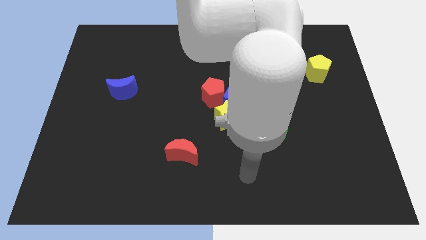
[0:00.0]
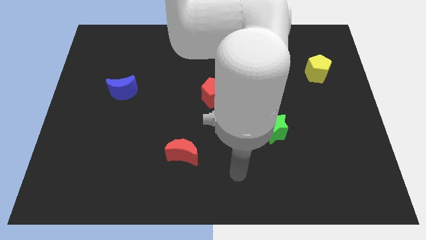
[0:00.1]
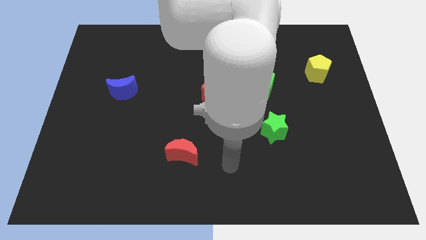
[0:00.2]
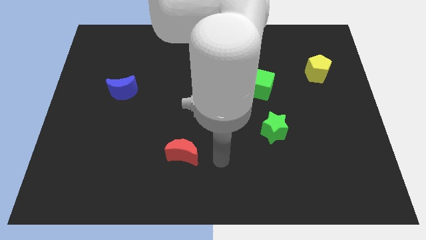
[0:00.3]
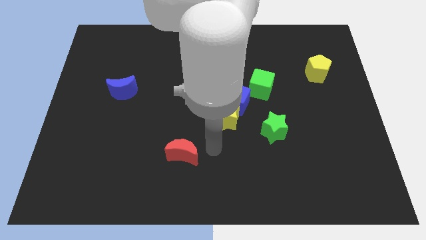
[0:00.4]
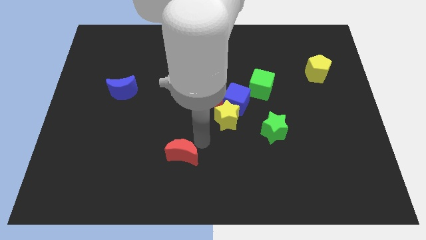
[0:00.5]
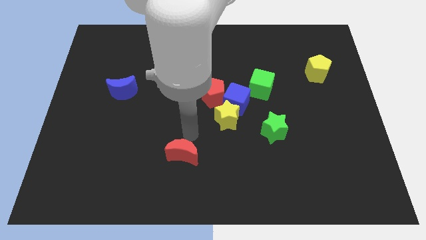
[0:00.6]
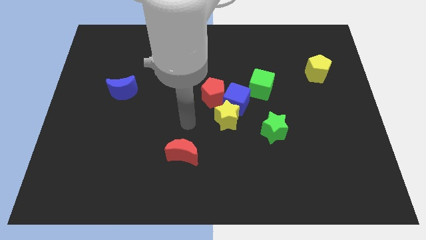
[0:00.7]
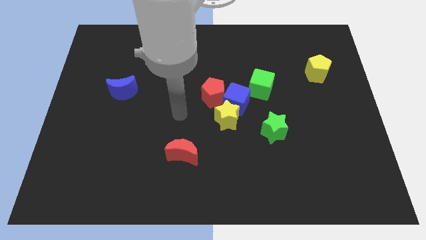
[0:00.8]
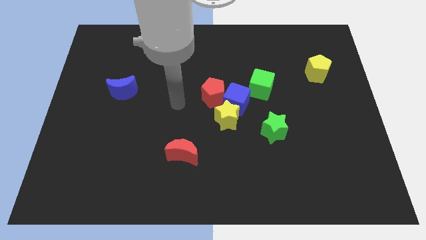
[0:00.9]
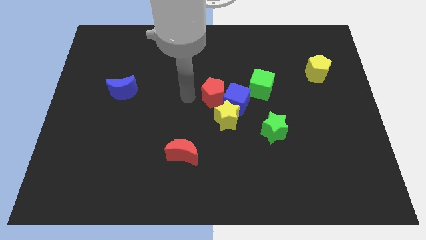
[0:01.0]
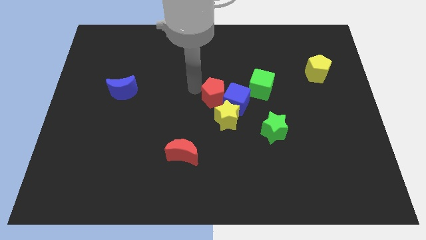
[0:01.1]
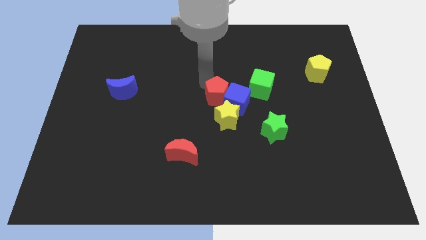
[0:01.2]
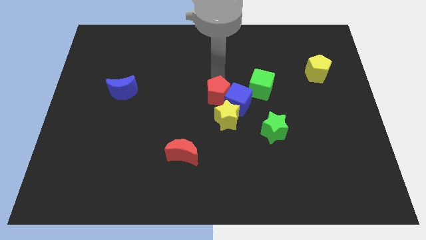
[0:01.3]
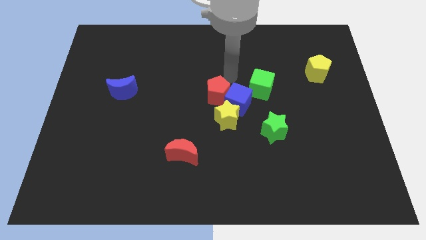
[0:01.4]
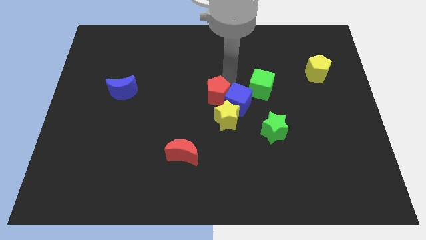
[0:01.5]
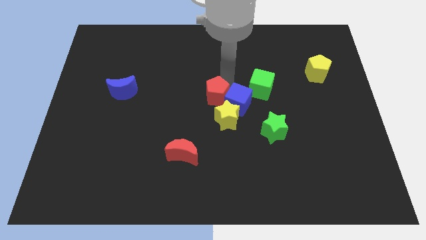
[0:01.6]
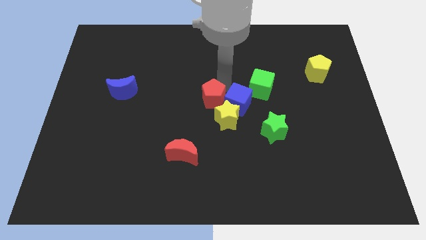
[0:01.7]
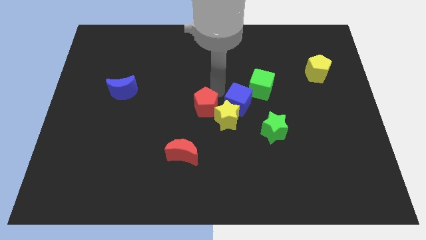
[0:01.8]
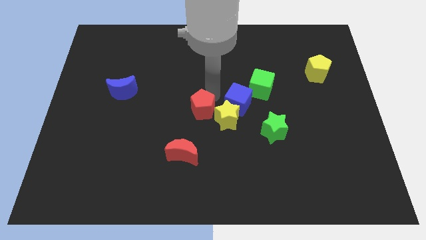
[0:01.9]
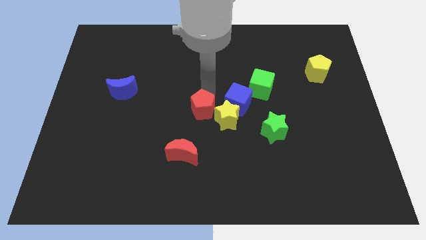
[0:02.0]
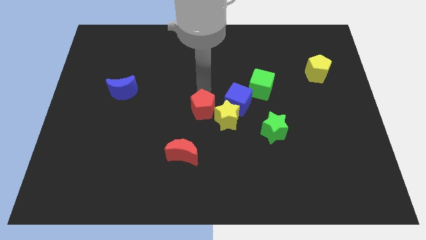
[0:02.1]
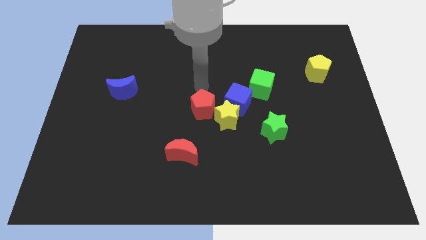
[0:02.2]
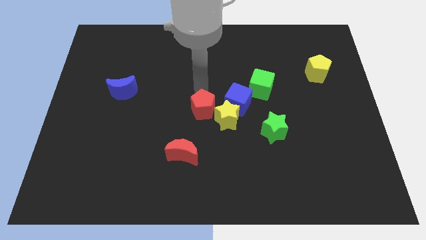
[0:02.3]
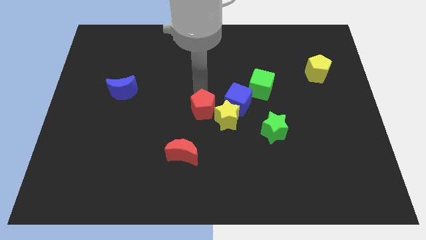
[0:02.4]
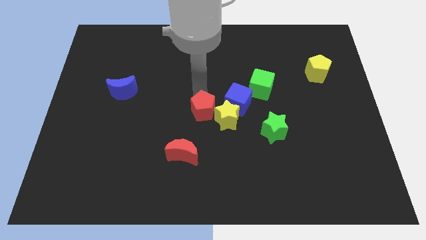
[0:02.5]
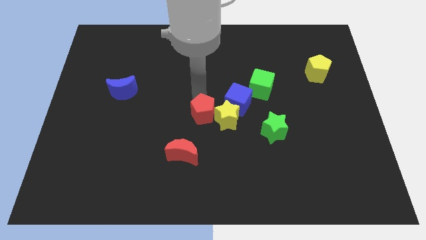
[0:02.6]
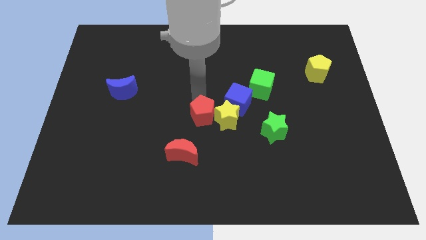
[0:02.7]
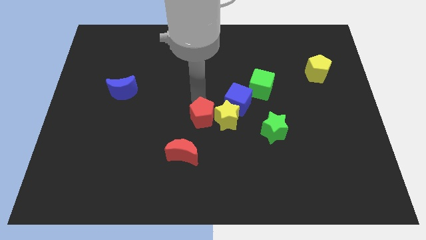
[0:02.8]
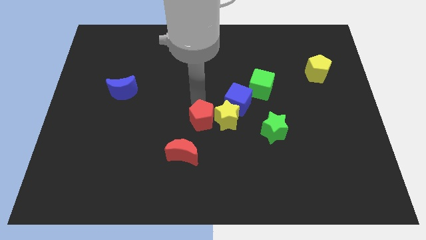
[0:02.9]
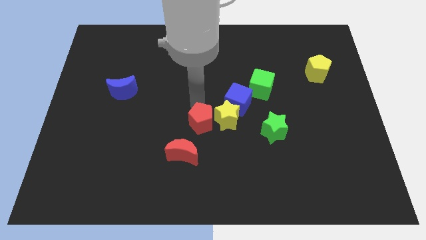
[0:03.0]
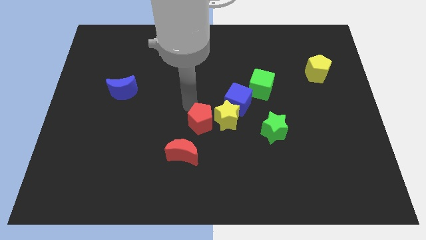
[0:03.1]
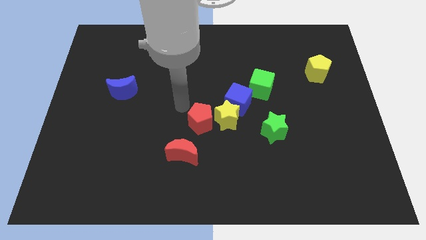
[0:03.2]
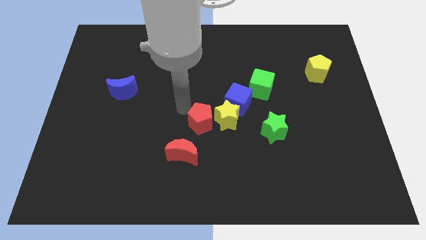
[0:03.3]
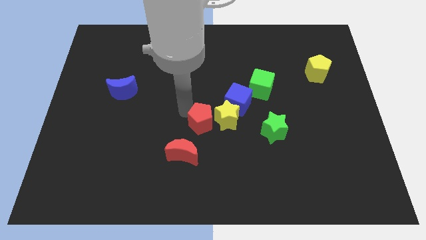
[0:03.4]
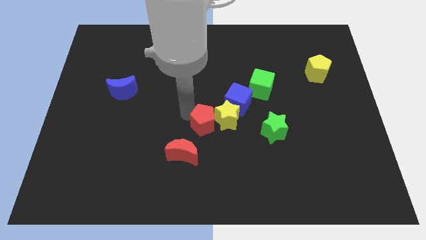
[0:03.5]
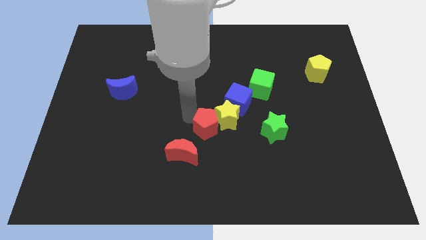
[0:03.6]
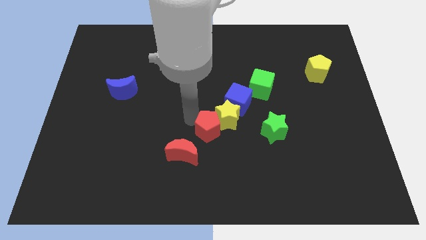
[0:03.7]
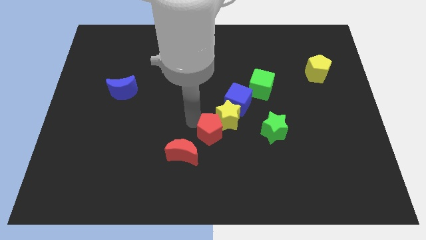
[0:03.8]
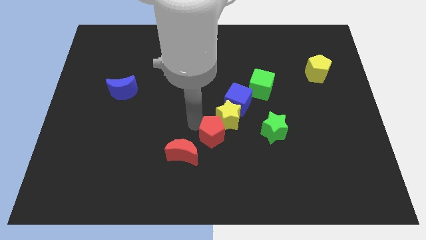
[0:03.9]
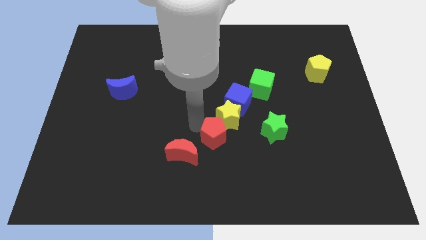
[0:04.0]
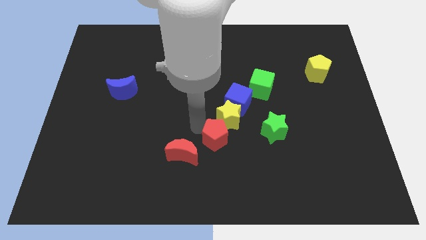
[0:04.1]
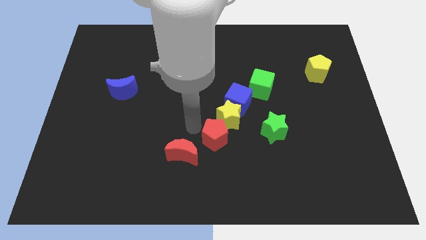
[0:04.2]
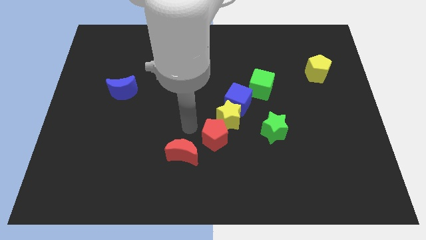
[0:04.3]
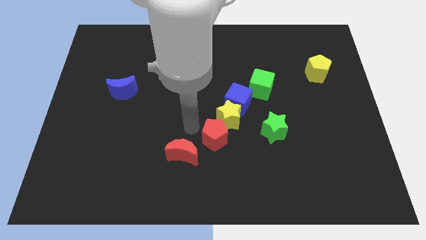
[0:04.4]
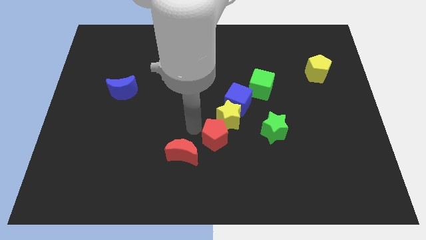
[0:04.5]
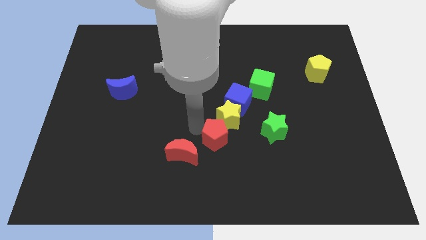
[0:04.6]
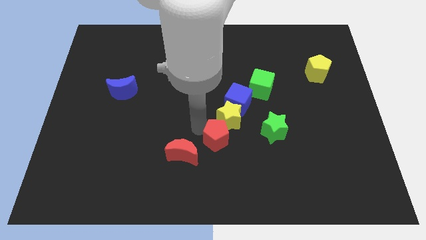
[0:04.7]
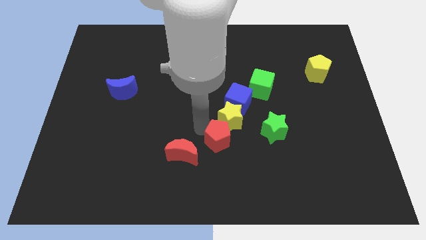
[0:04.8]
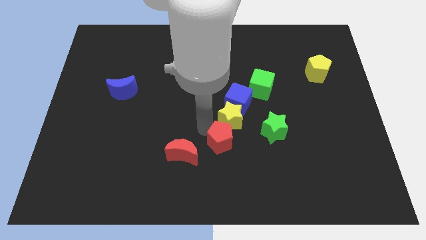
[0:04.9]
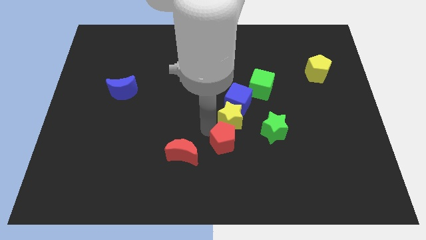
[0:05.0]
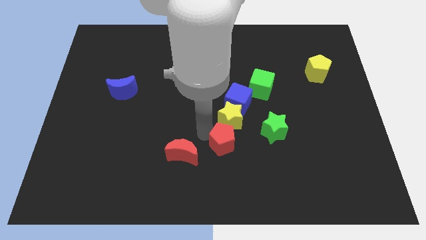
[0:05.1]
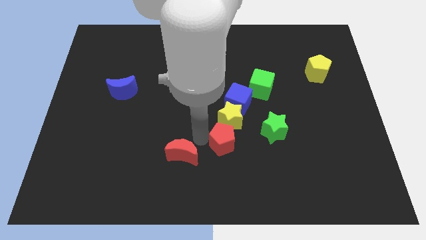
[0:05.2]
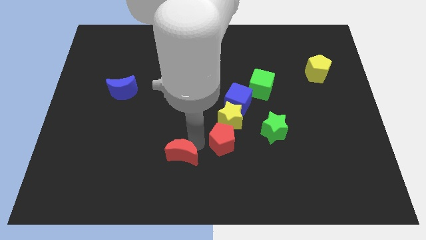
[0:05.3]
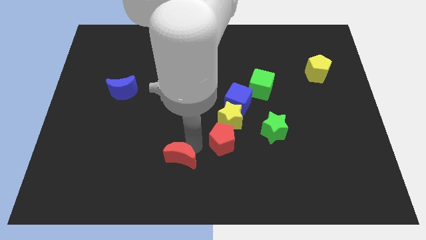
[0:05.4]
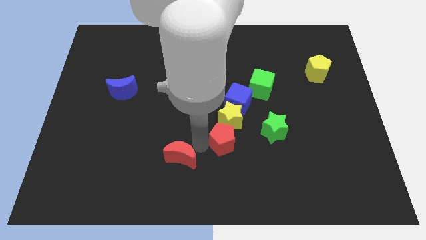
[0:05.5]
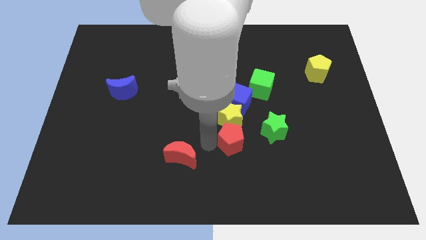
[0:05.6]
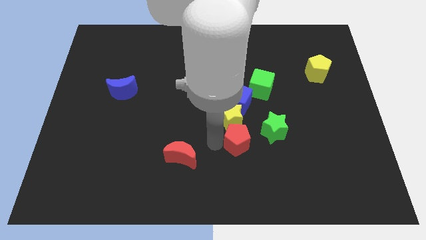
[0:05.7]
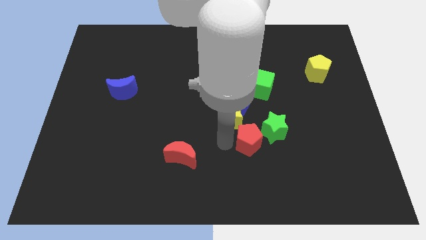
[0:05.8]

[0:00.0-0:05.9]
push the red pentagon towards the green star

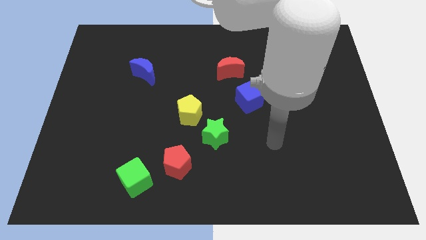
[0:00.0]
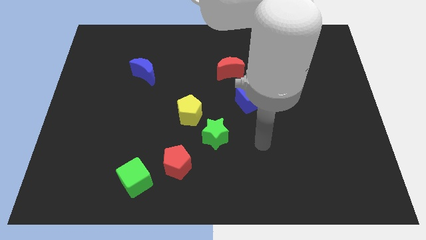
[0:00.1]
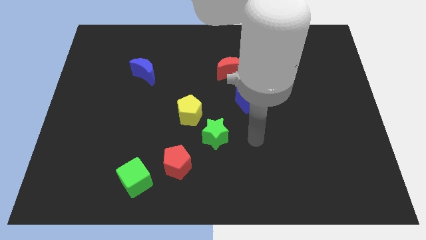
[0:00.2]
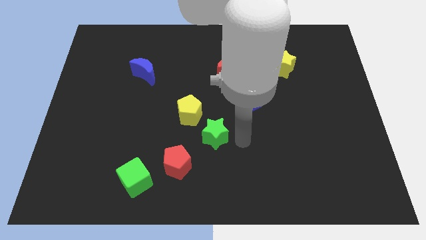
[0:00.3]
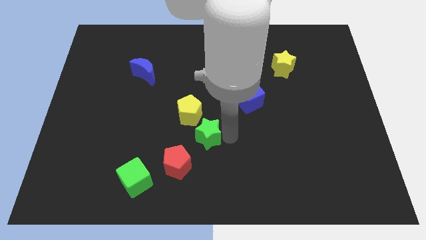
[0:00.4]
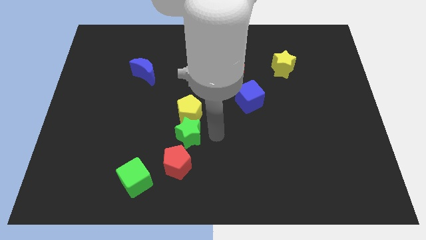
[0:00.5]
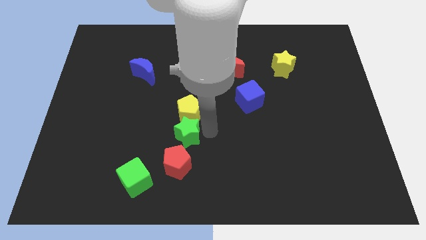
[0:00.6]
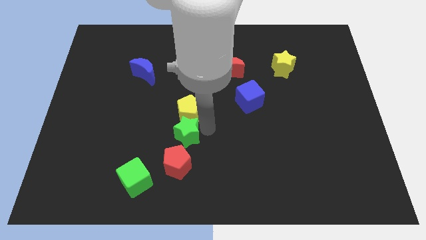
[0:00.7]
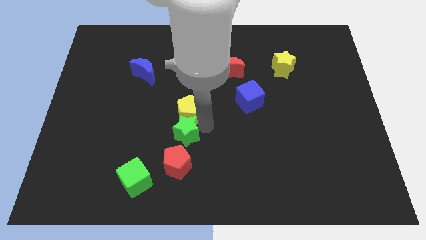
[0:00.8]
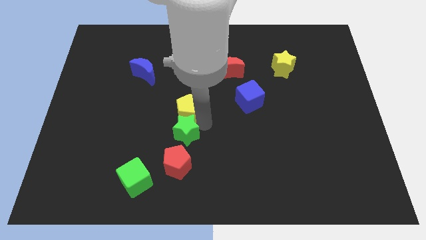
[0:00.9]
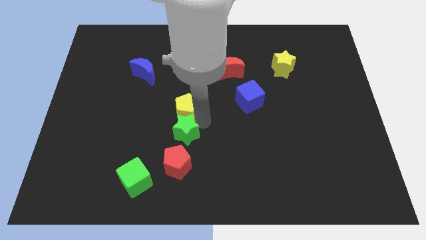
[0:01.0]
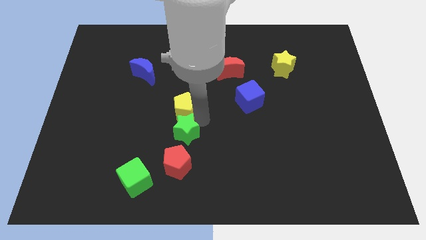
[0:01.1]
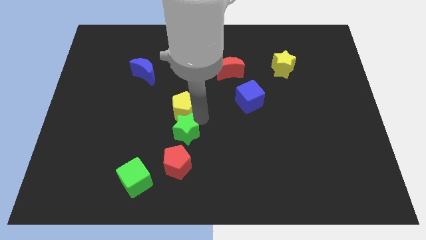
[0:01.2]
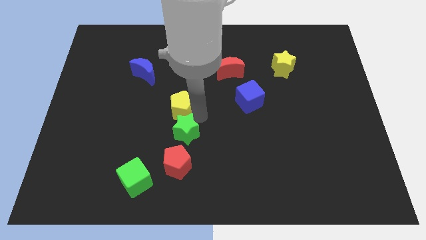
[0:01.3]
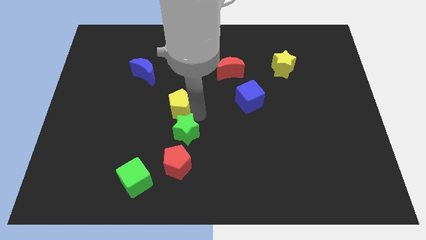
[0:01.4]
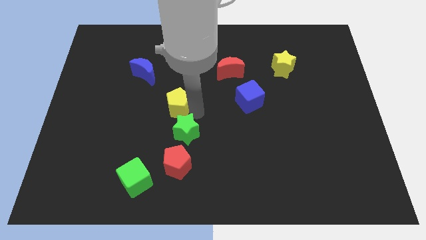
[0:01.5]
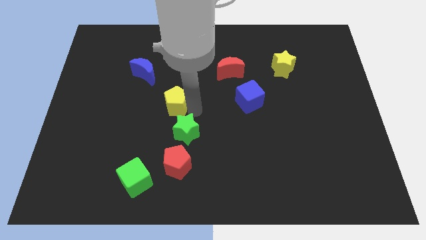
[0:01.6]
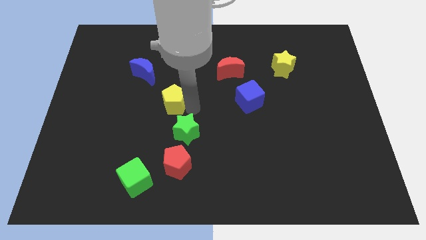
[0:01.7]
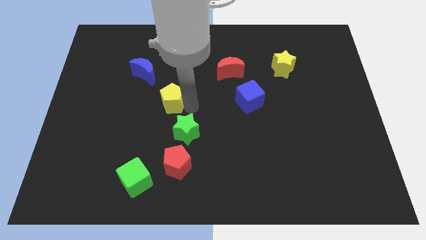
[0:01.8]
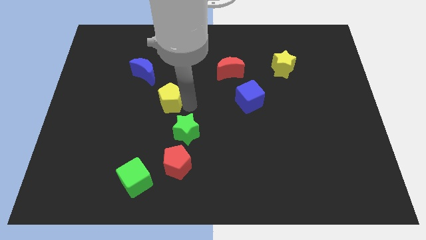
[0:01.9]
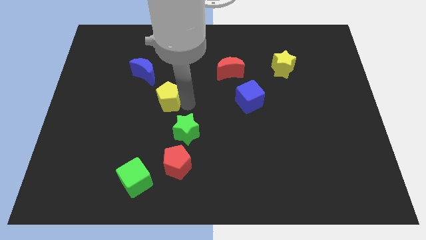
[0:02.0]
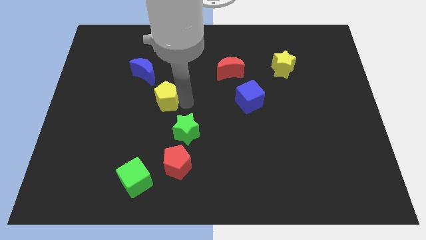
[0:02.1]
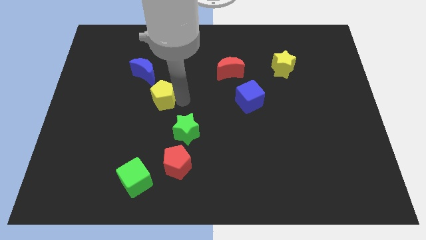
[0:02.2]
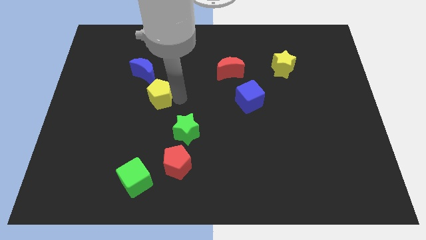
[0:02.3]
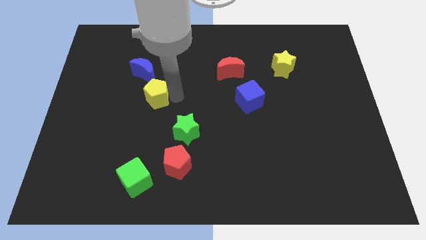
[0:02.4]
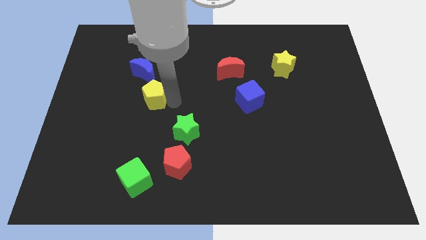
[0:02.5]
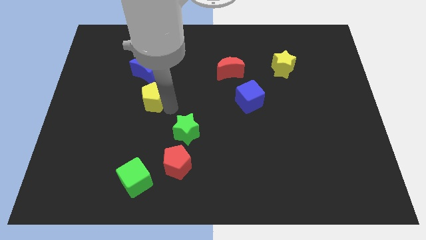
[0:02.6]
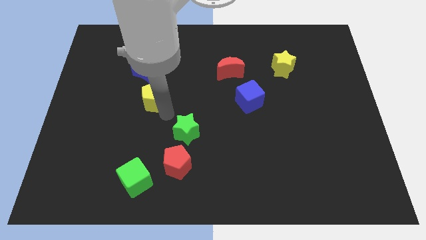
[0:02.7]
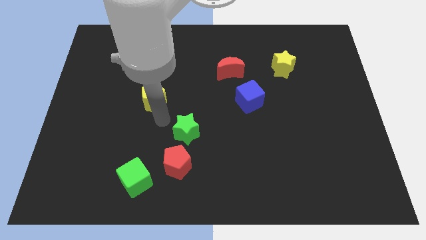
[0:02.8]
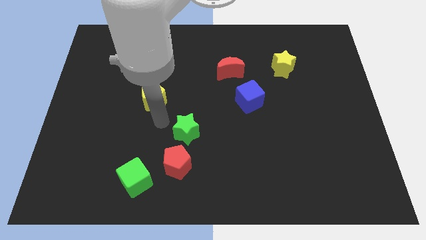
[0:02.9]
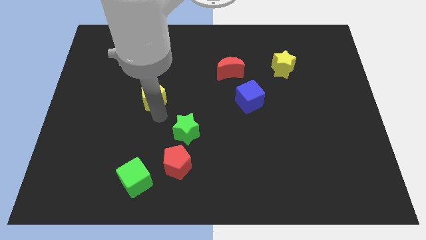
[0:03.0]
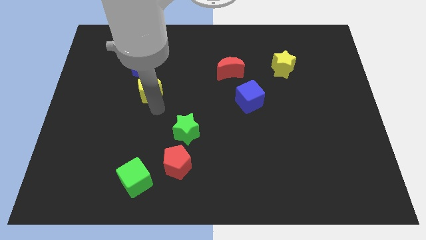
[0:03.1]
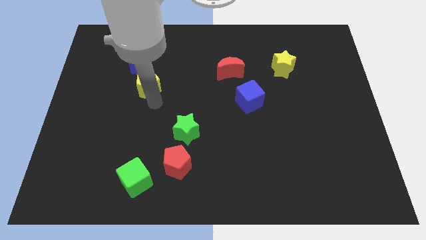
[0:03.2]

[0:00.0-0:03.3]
push the yellow pentagon towards the blue moon
